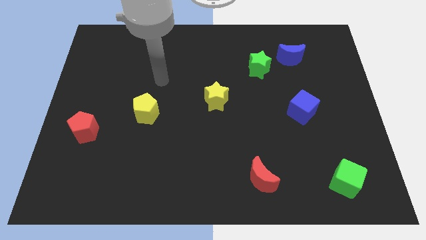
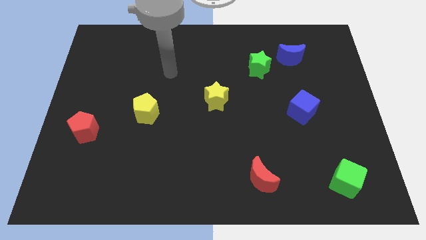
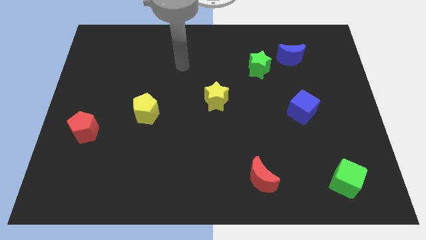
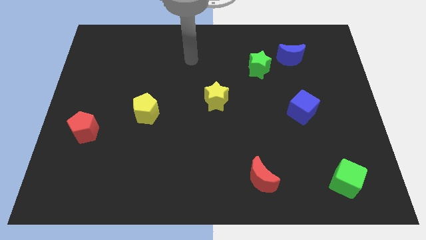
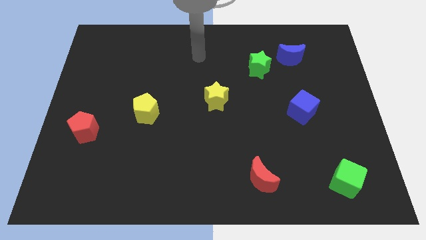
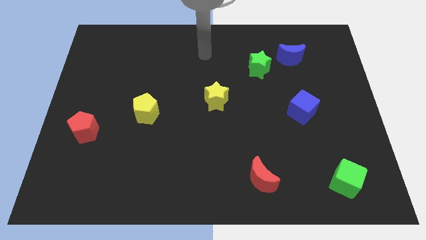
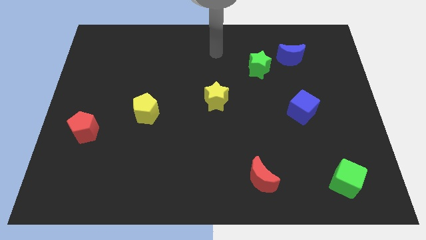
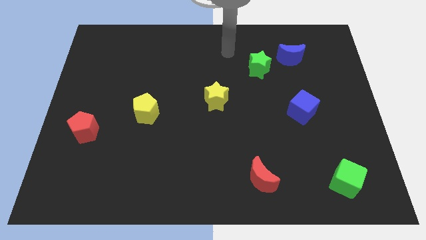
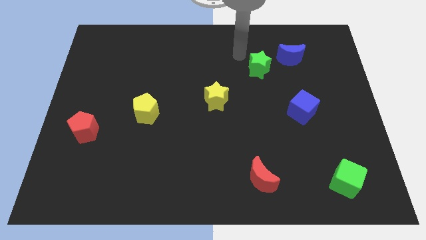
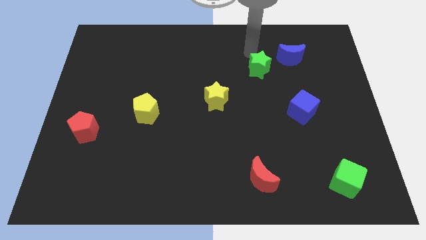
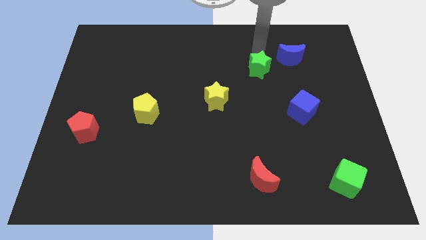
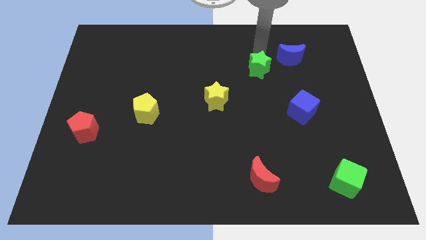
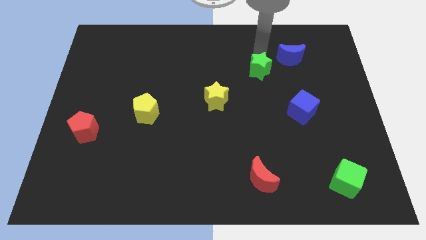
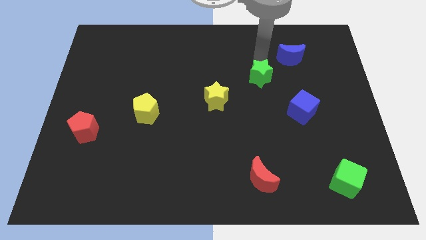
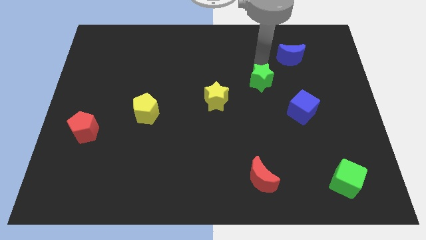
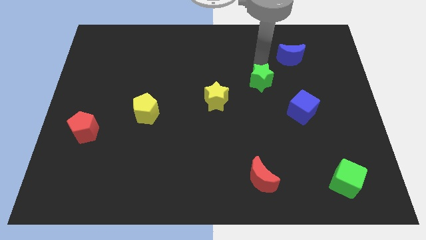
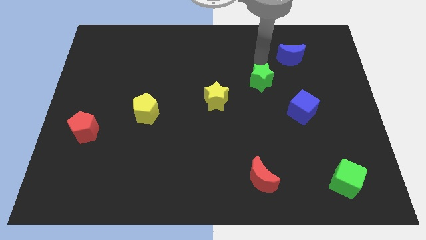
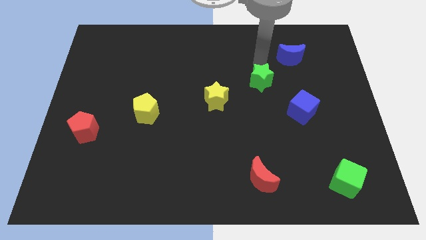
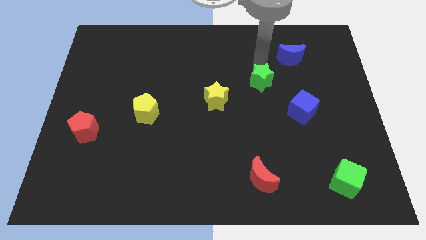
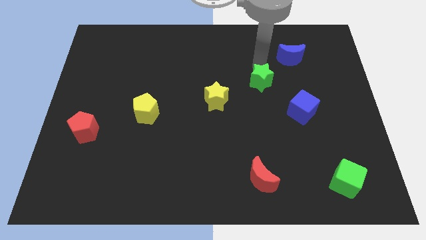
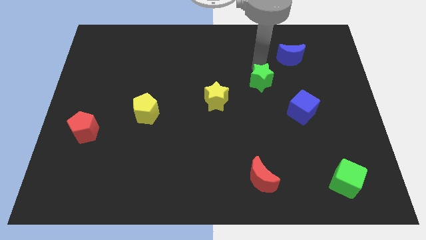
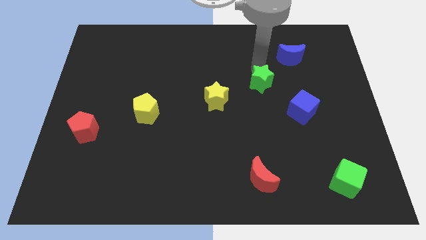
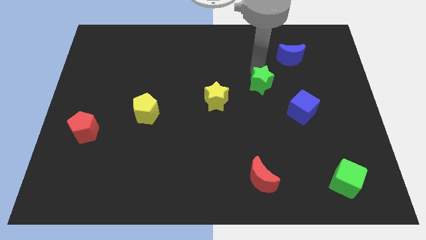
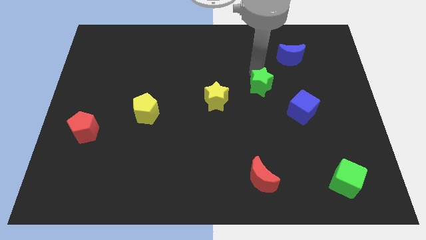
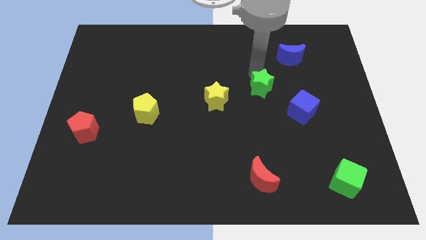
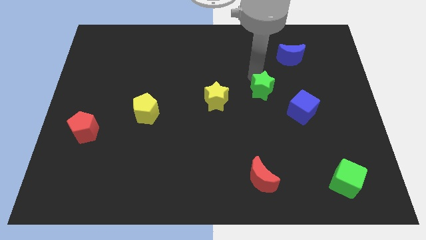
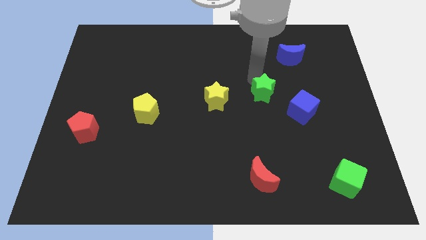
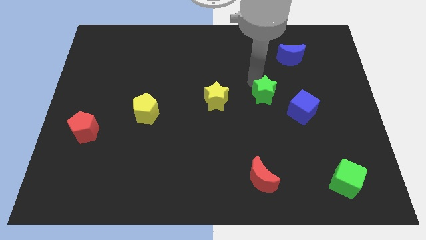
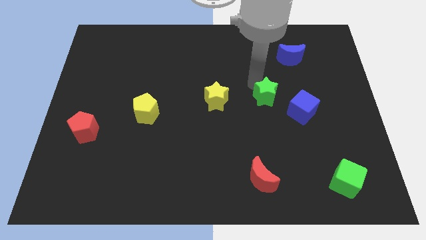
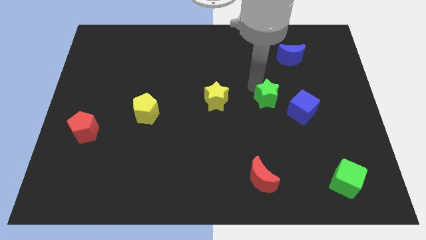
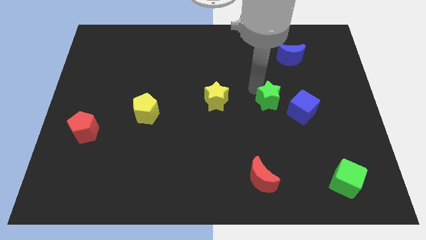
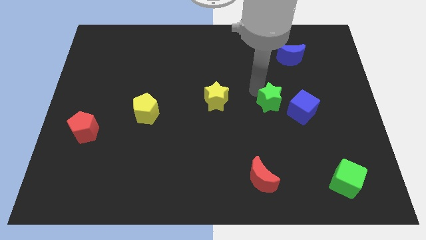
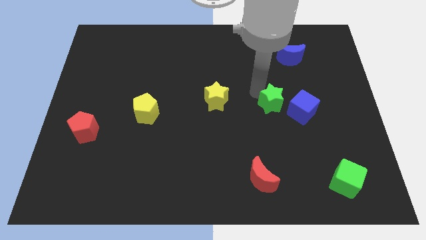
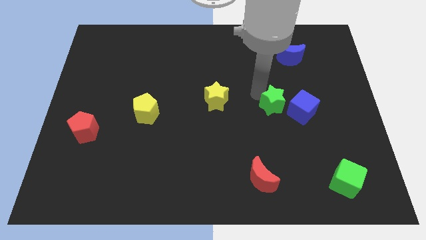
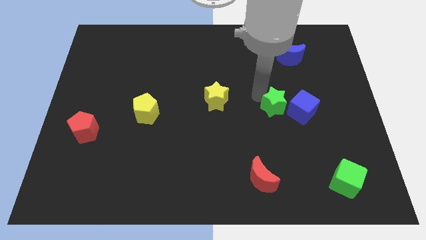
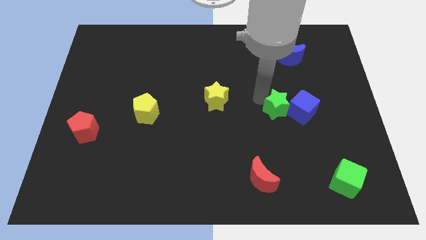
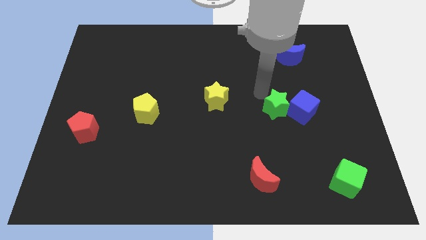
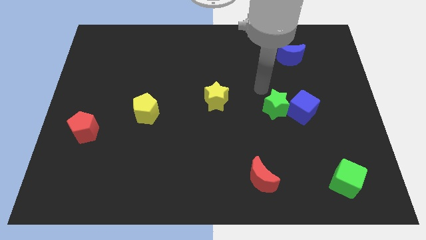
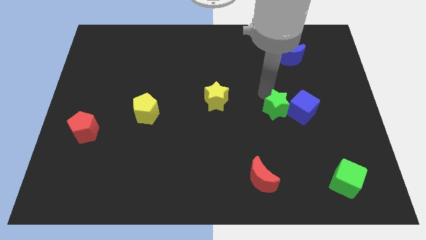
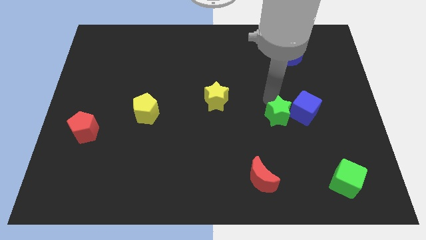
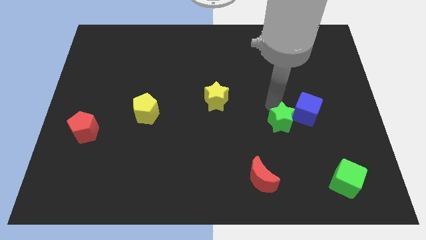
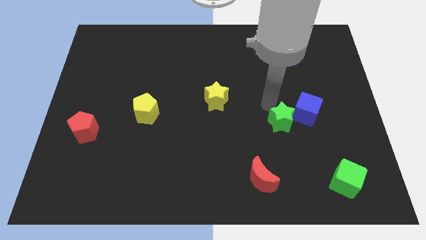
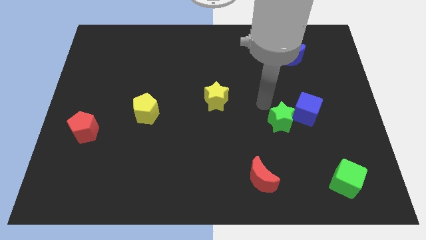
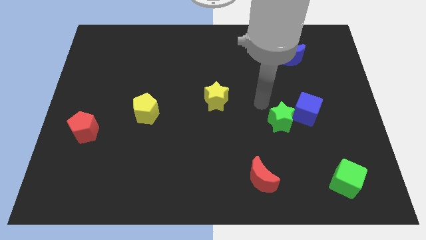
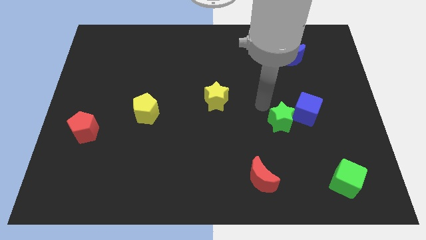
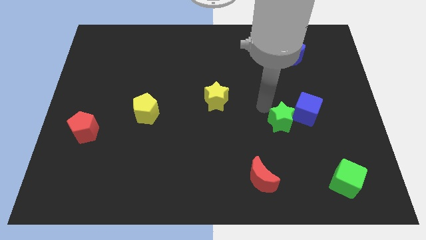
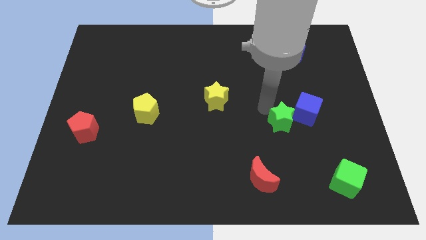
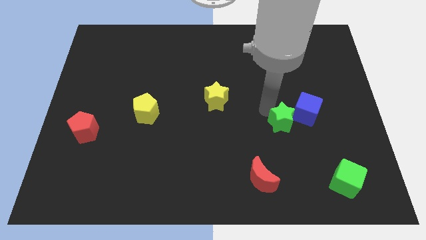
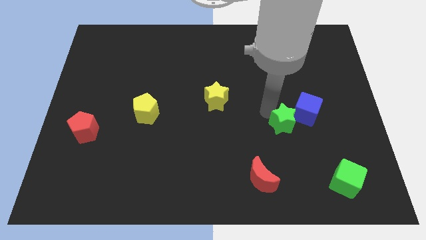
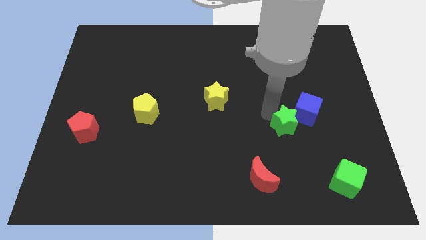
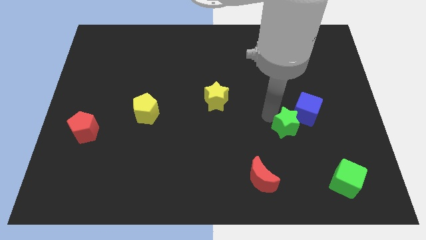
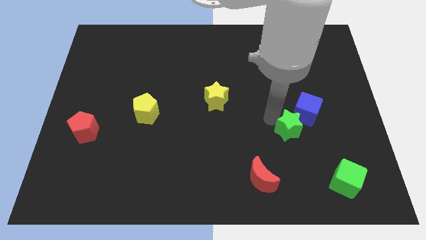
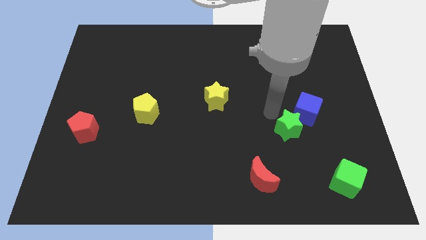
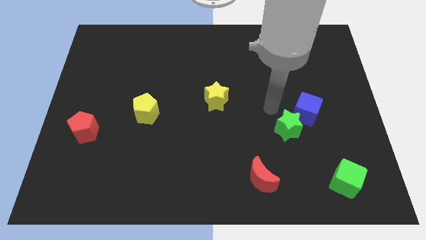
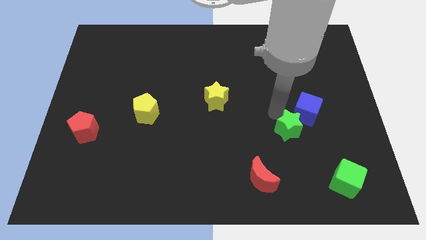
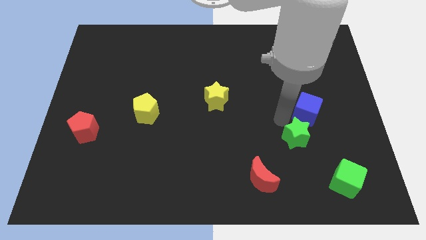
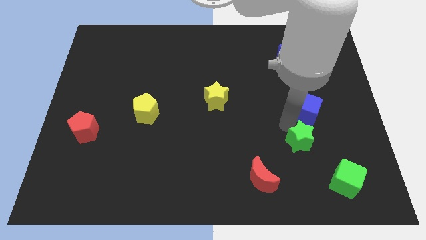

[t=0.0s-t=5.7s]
move the green star diagonally up and to the left of the green cube

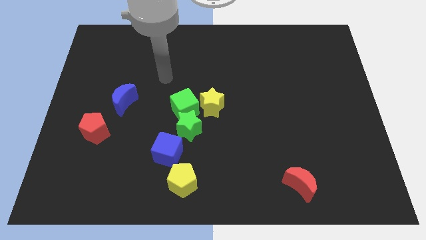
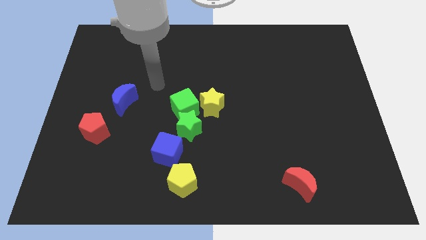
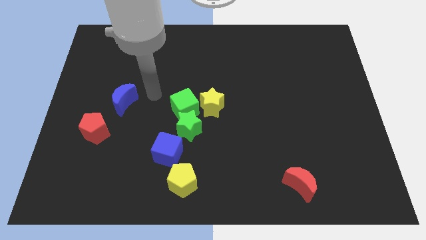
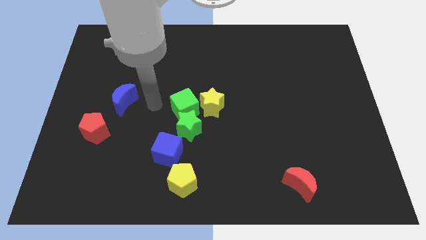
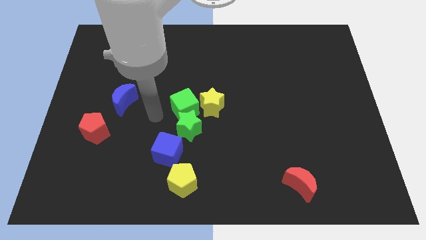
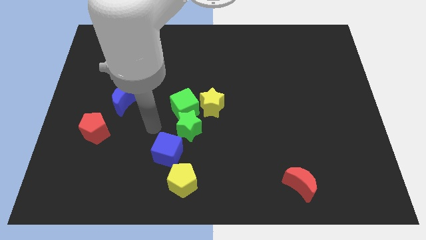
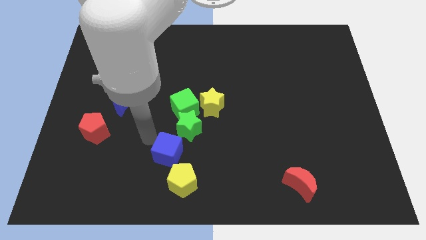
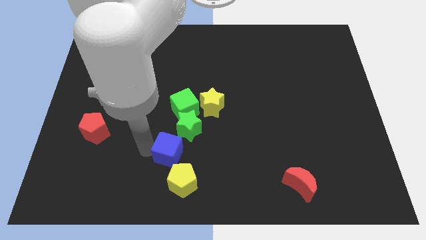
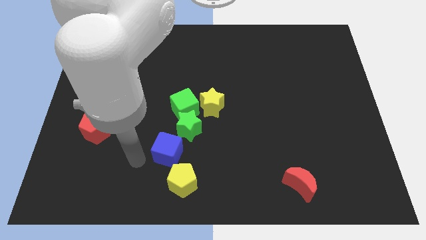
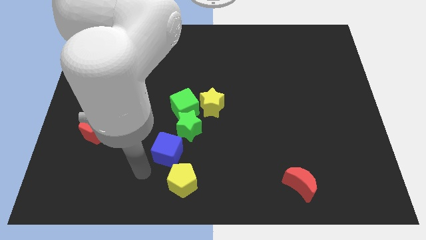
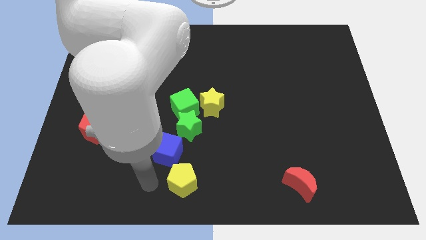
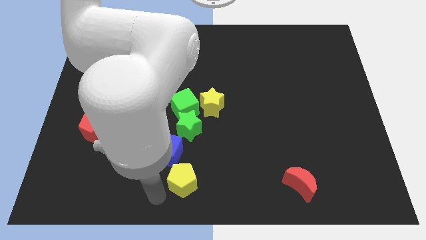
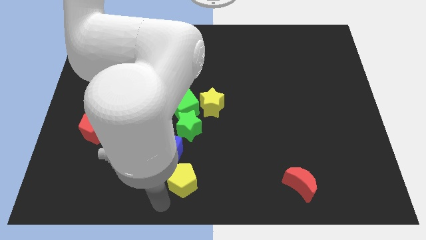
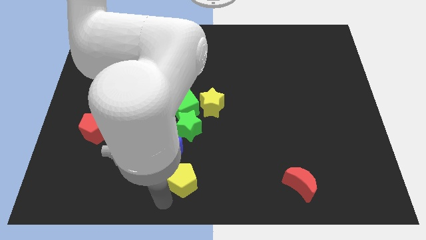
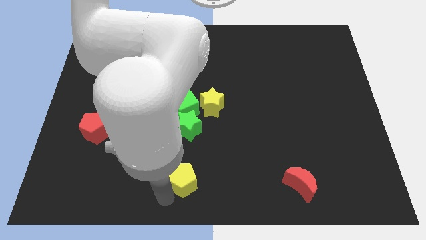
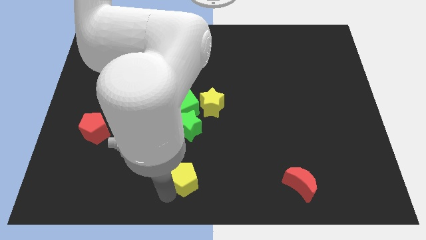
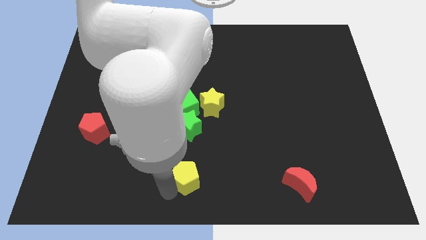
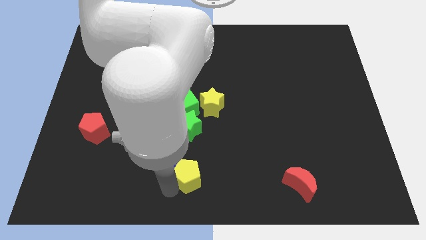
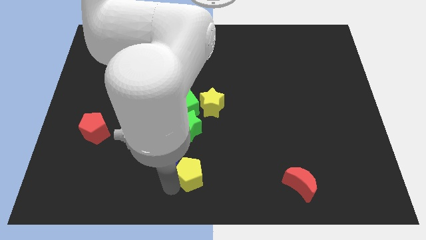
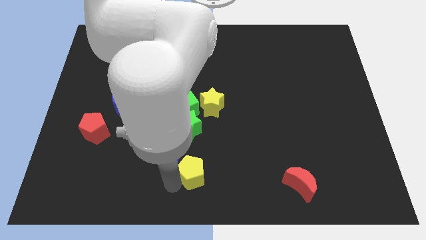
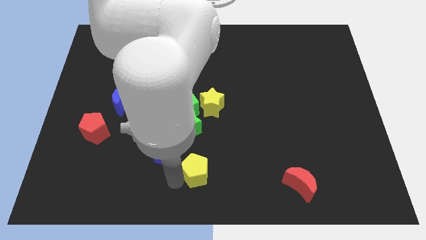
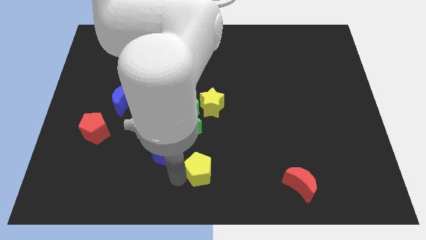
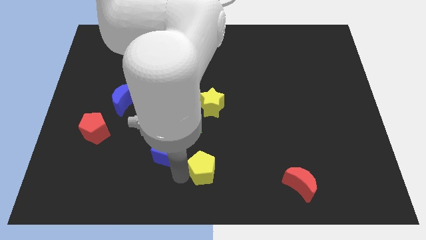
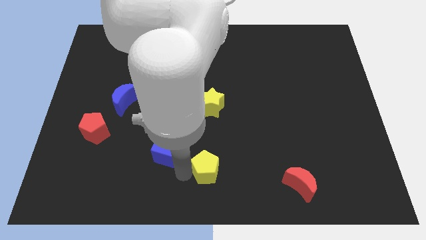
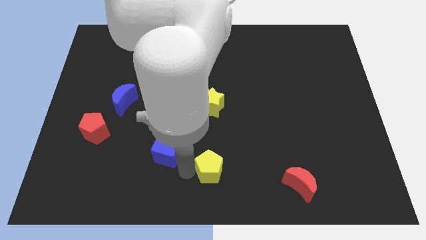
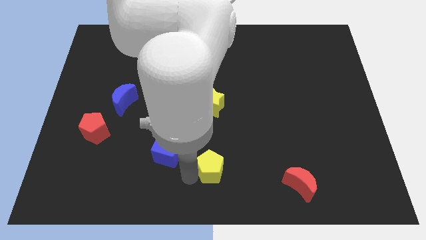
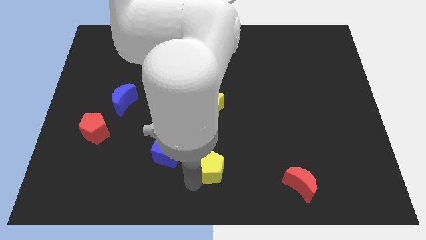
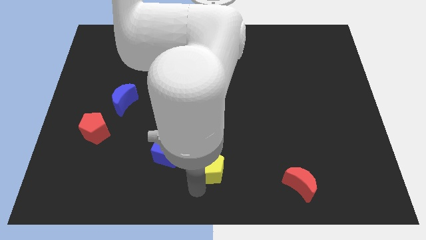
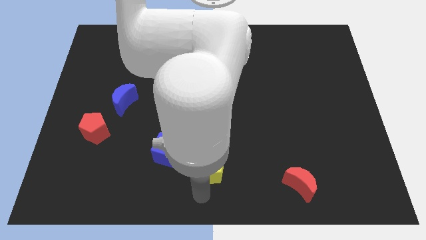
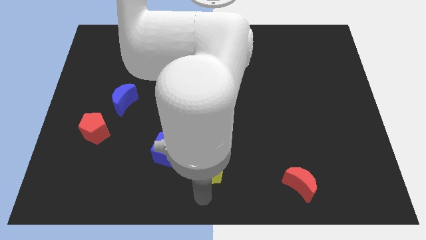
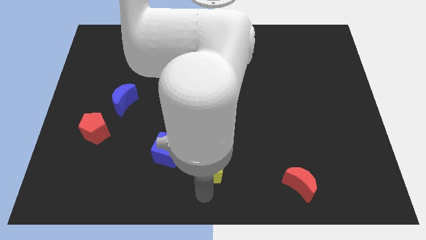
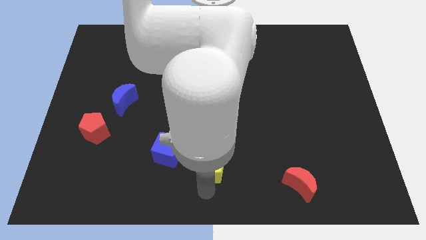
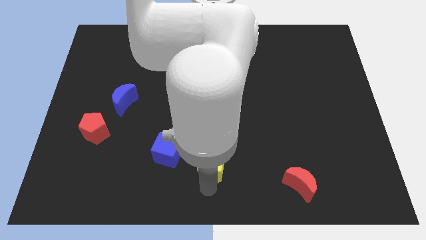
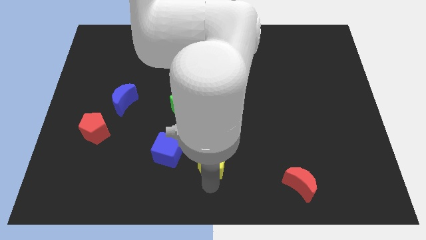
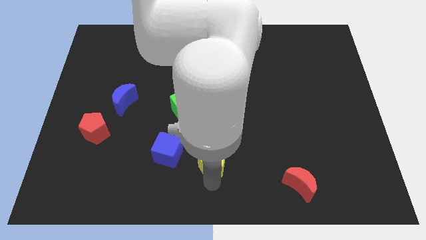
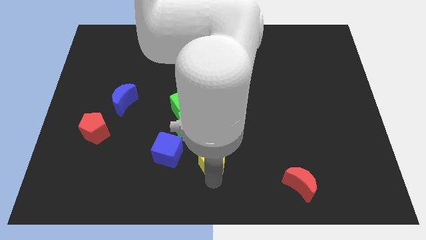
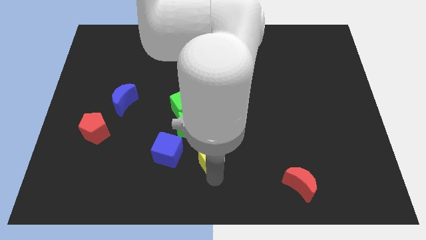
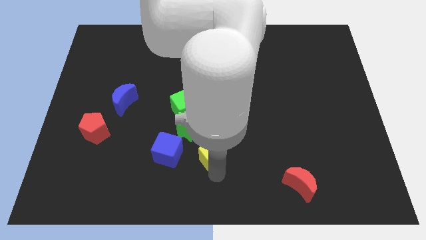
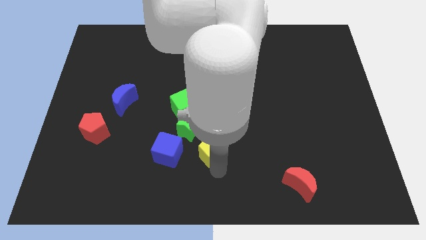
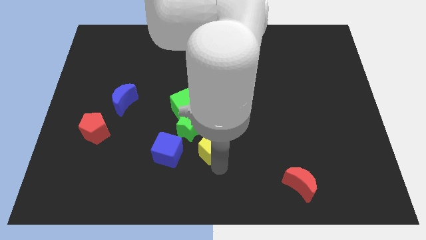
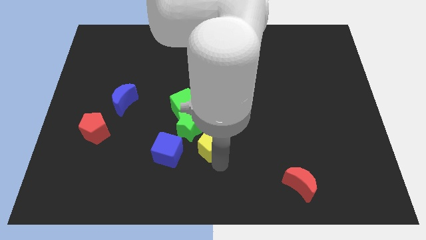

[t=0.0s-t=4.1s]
push the yellow pentagon to the bottom right of the green cube
